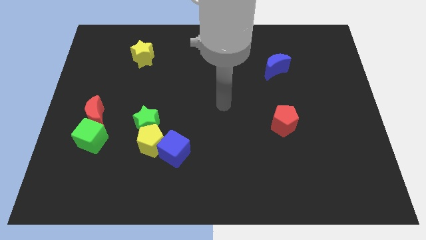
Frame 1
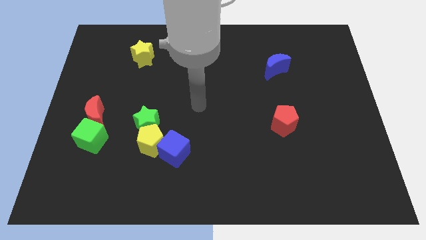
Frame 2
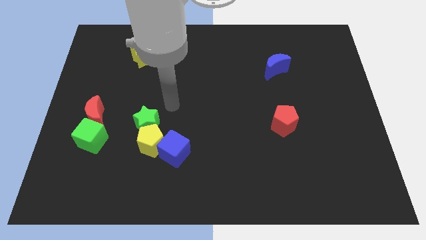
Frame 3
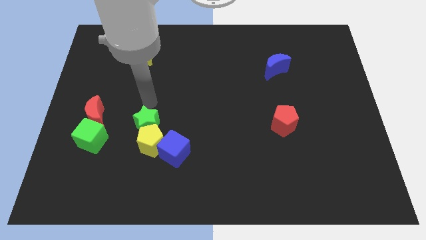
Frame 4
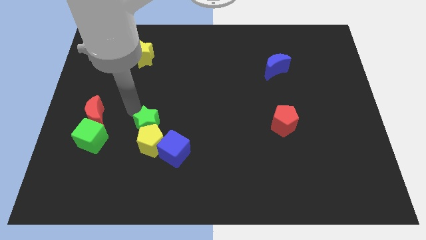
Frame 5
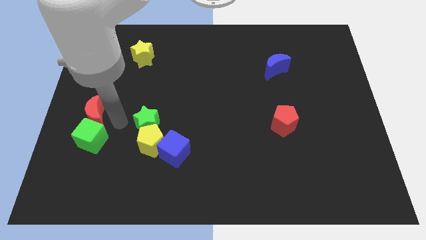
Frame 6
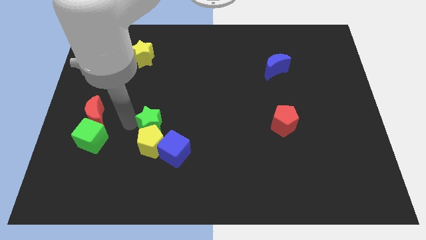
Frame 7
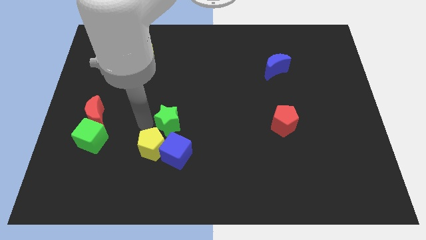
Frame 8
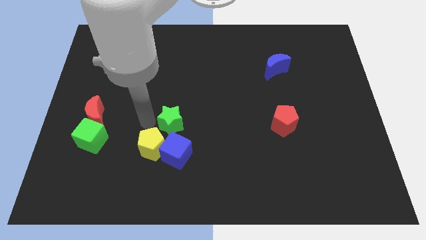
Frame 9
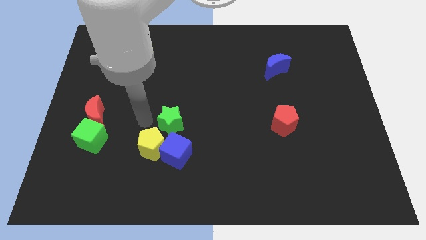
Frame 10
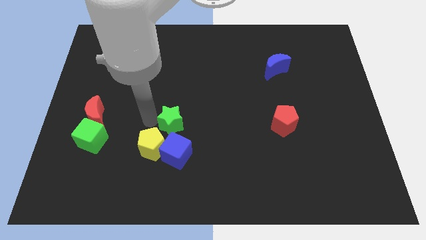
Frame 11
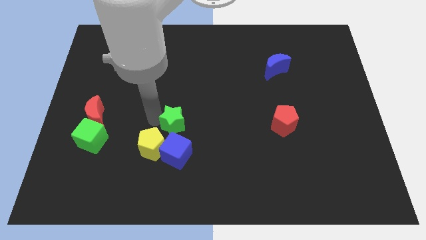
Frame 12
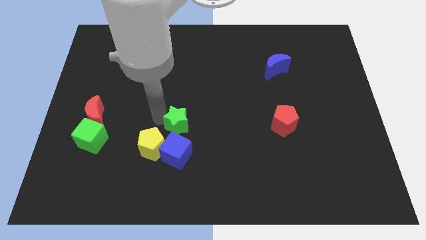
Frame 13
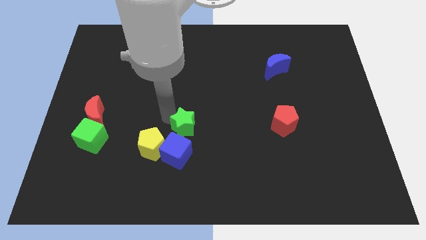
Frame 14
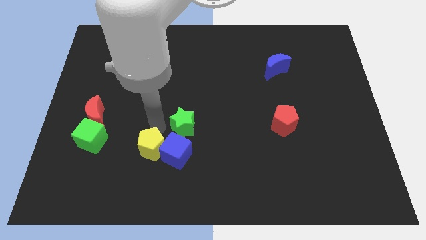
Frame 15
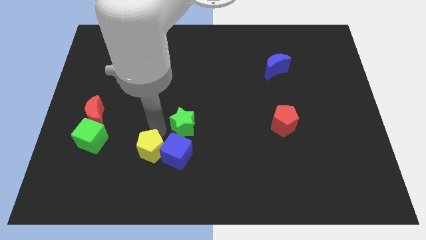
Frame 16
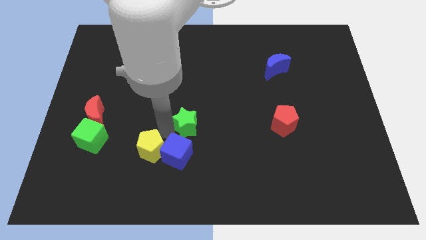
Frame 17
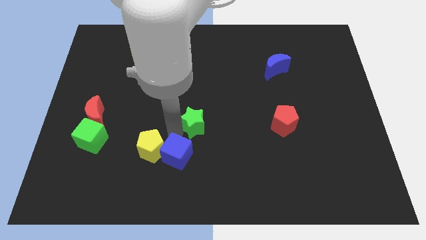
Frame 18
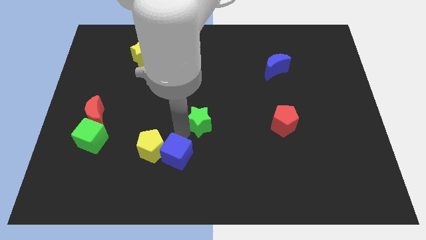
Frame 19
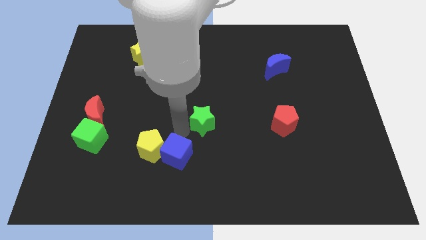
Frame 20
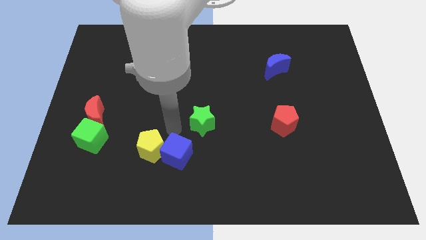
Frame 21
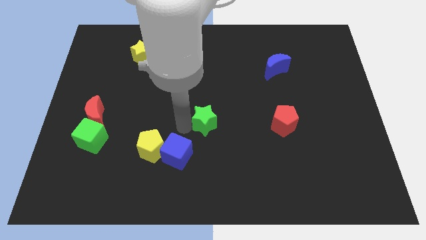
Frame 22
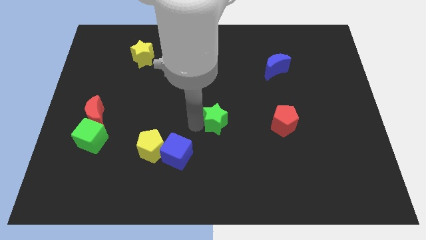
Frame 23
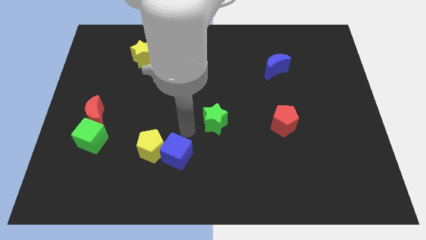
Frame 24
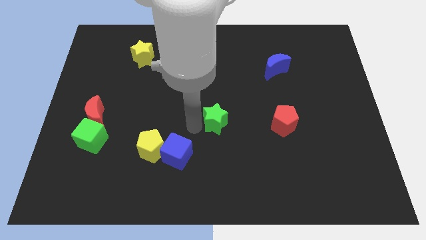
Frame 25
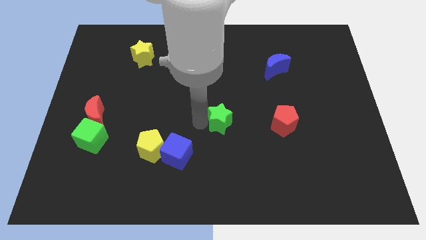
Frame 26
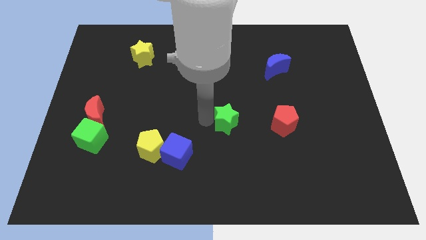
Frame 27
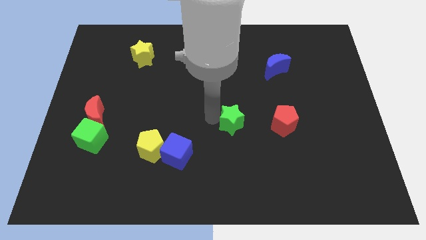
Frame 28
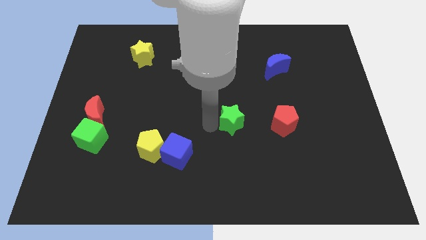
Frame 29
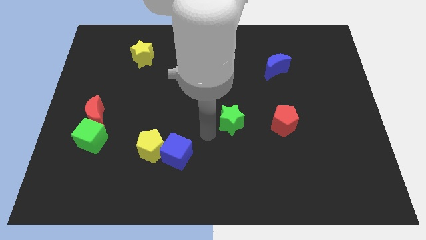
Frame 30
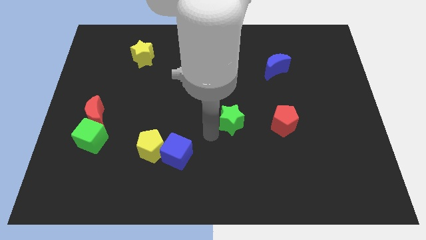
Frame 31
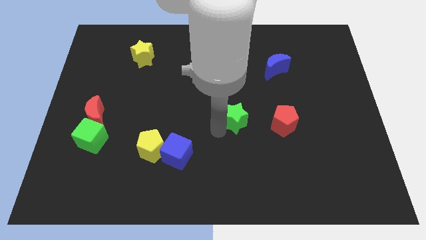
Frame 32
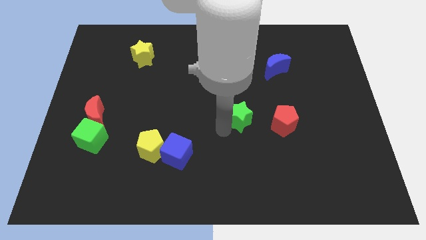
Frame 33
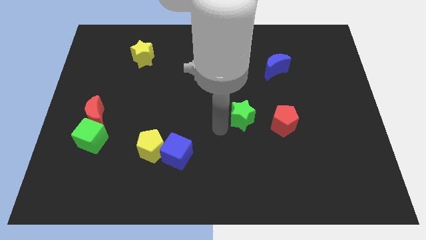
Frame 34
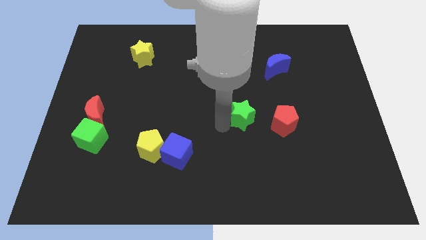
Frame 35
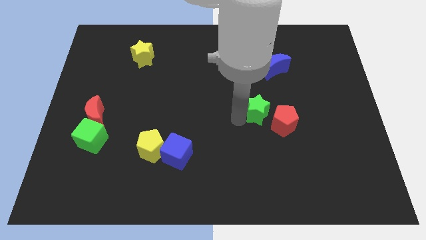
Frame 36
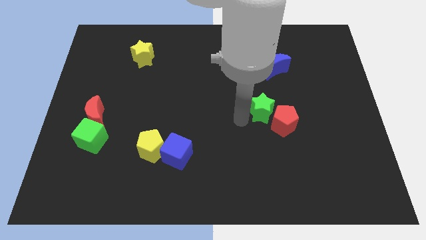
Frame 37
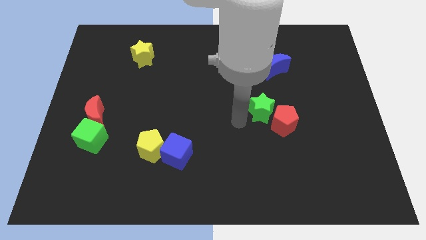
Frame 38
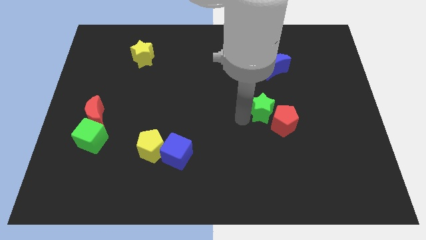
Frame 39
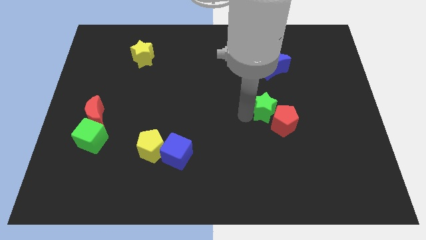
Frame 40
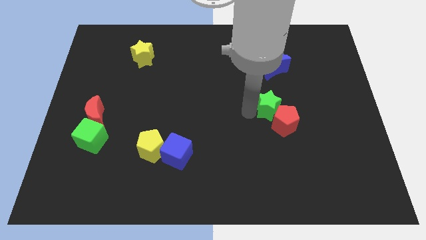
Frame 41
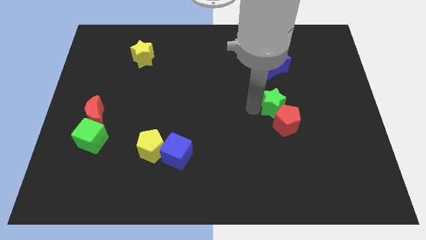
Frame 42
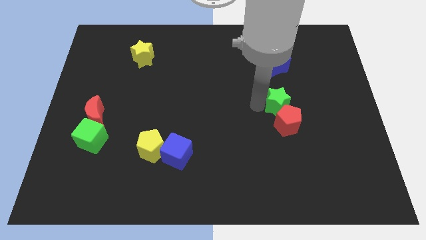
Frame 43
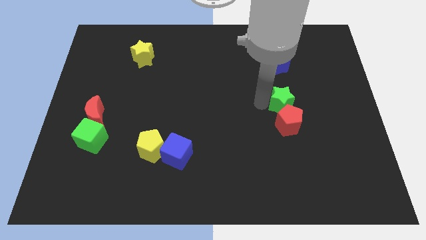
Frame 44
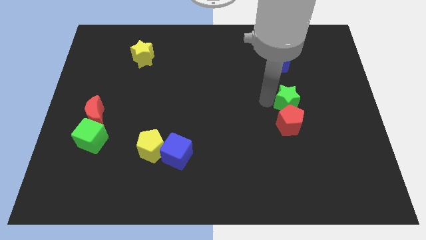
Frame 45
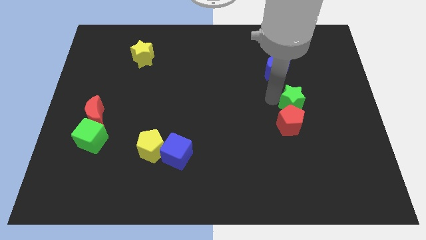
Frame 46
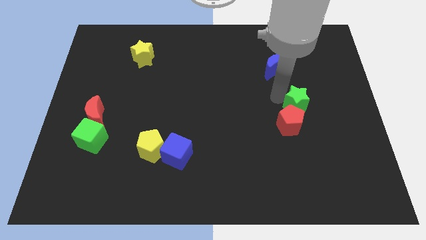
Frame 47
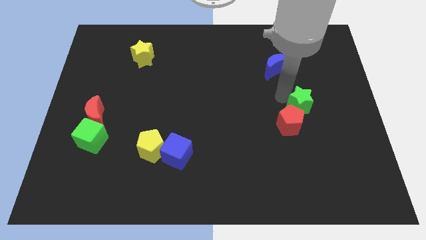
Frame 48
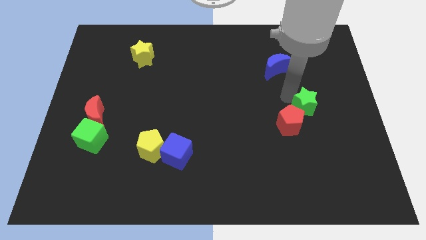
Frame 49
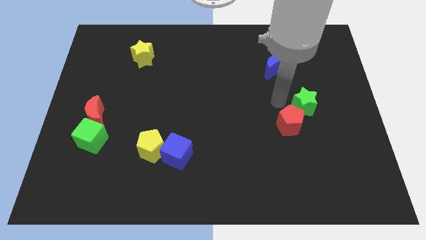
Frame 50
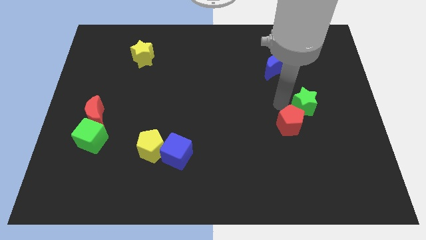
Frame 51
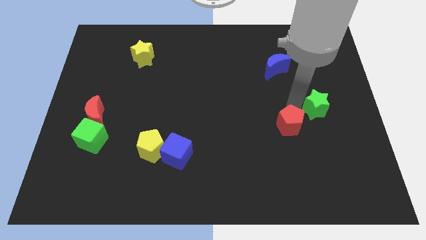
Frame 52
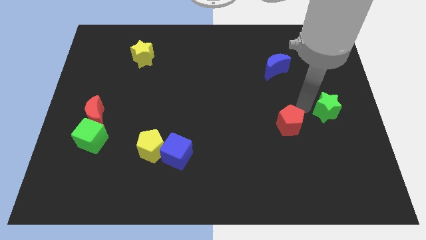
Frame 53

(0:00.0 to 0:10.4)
slide the green star to the center right

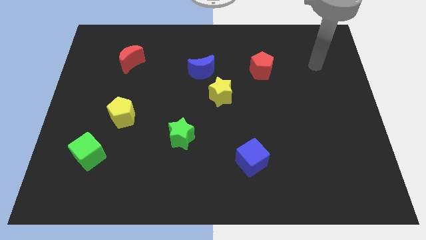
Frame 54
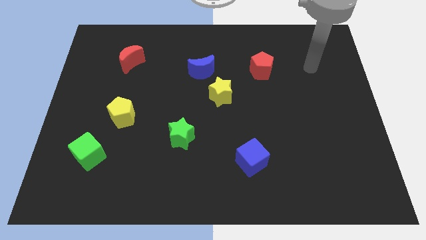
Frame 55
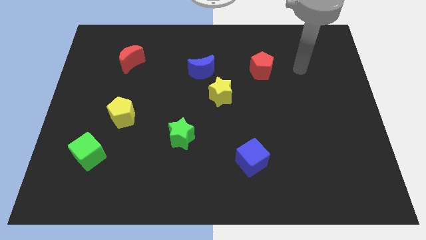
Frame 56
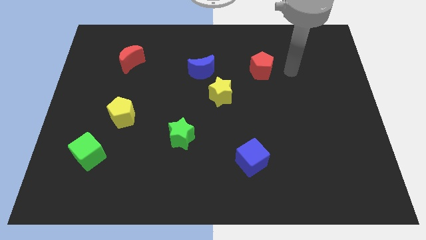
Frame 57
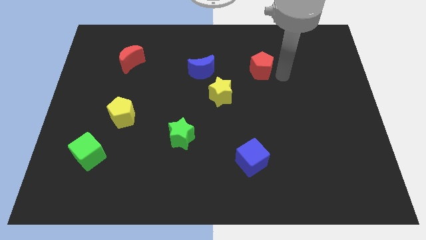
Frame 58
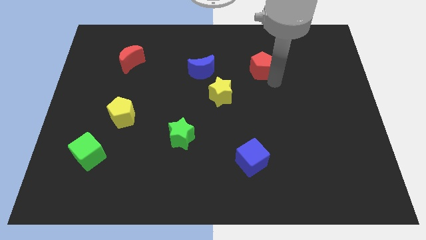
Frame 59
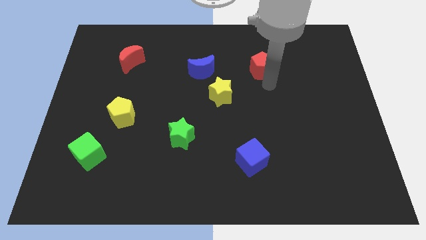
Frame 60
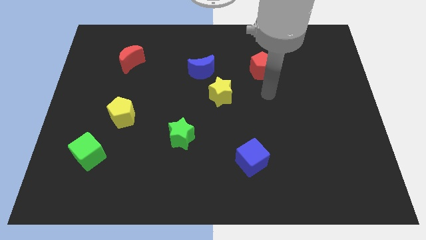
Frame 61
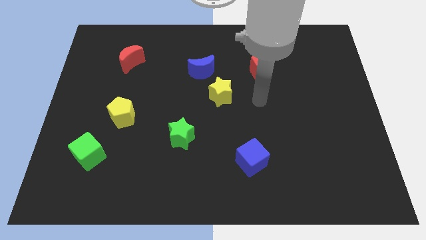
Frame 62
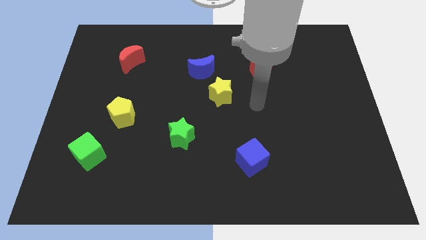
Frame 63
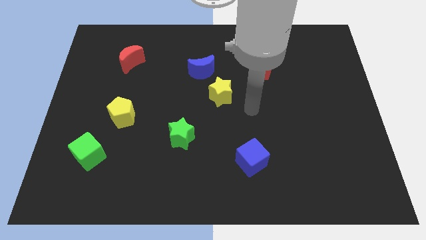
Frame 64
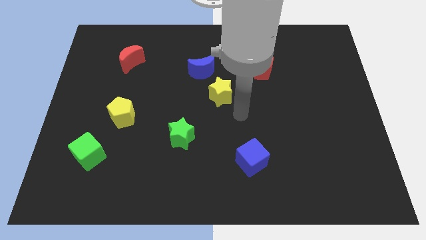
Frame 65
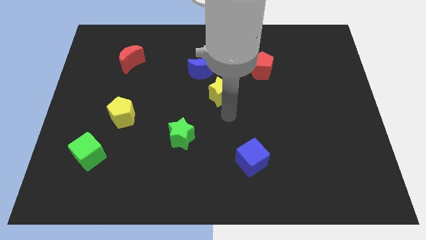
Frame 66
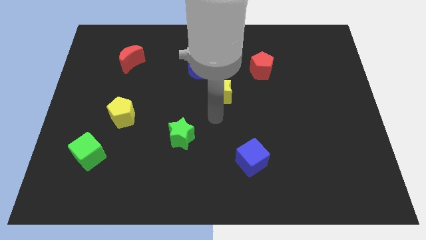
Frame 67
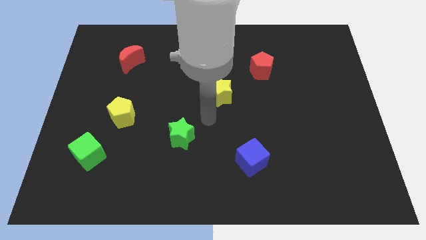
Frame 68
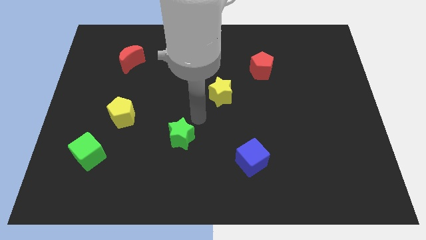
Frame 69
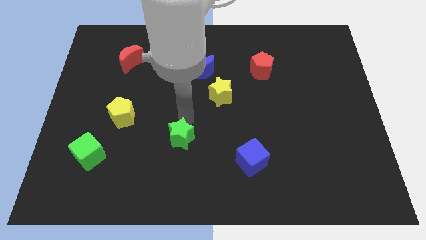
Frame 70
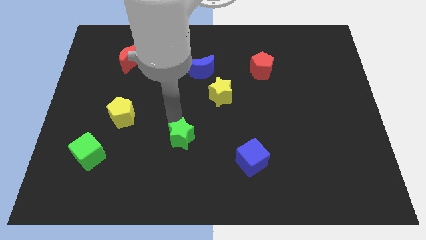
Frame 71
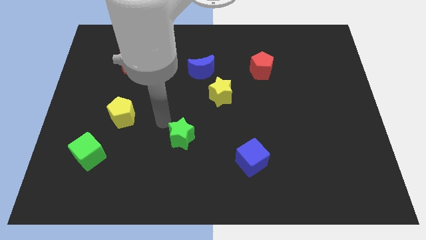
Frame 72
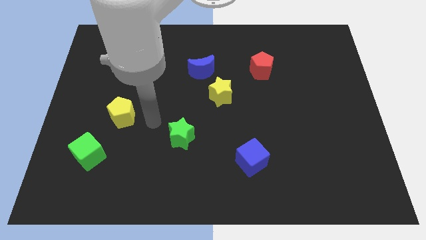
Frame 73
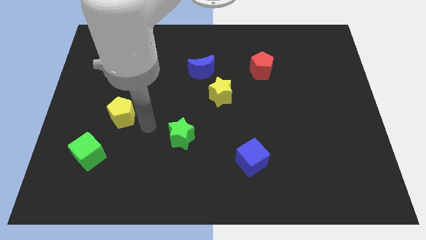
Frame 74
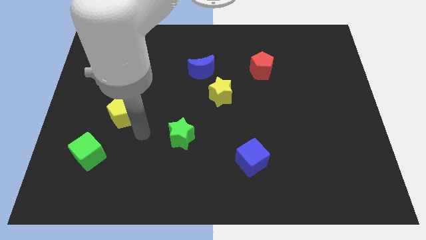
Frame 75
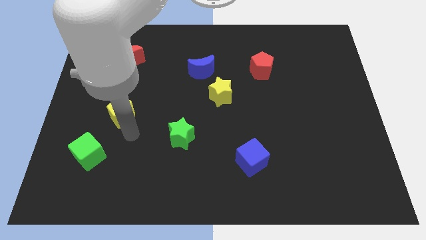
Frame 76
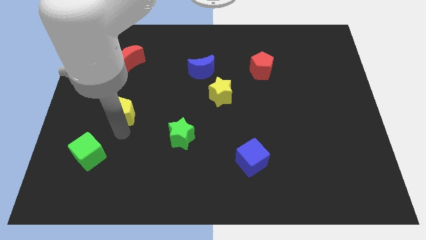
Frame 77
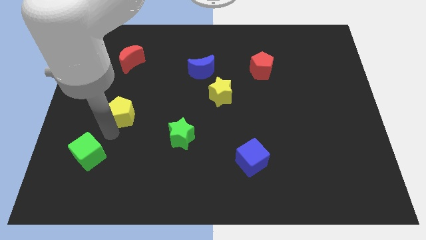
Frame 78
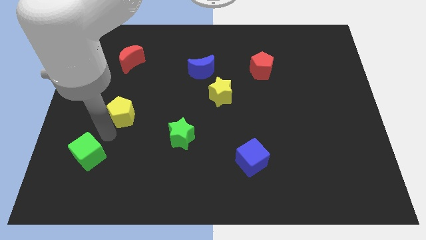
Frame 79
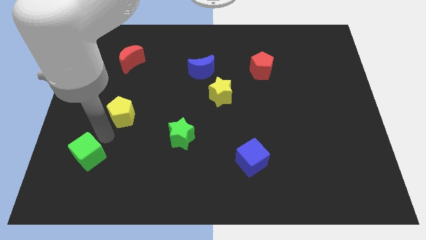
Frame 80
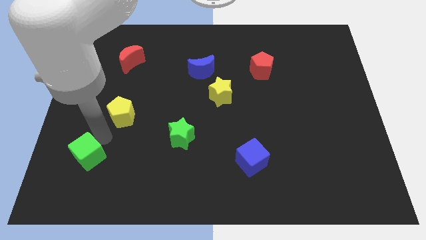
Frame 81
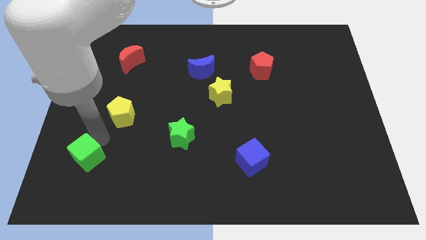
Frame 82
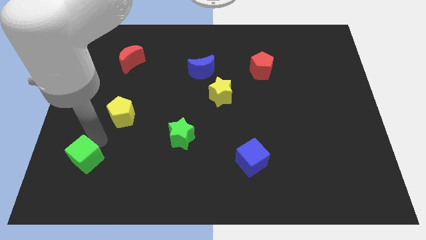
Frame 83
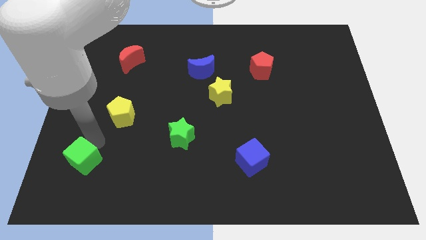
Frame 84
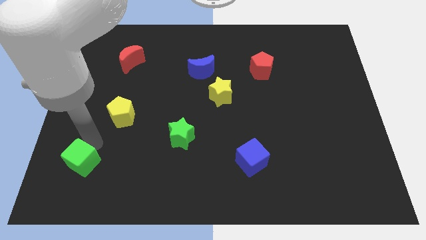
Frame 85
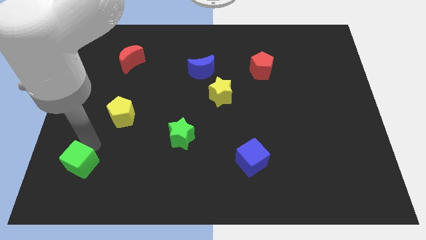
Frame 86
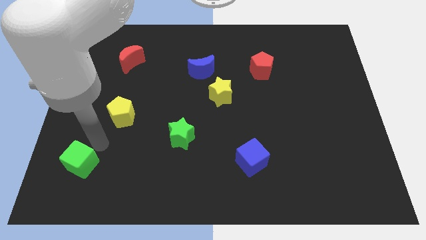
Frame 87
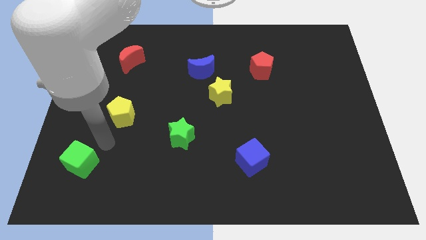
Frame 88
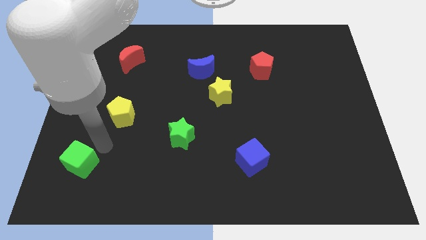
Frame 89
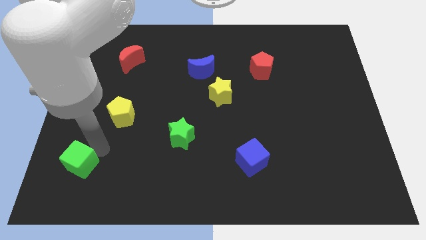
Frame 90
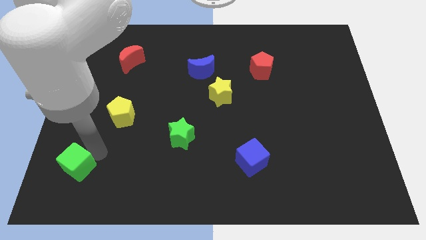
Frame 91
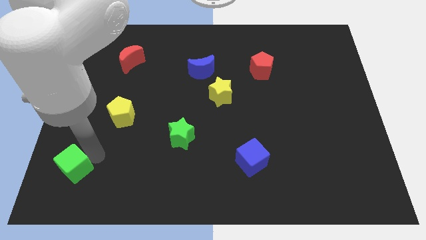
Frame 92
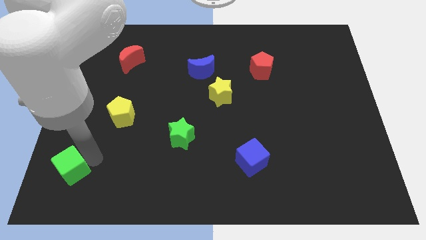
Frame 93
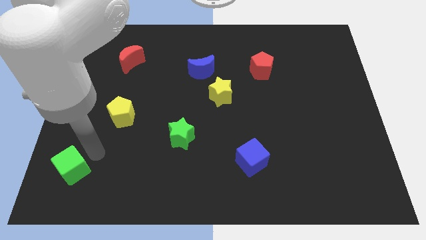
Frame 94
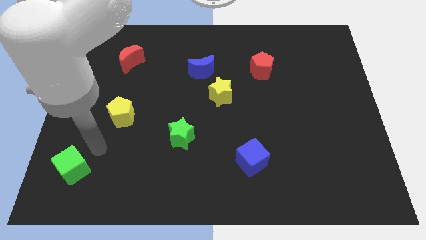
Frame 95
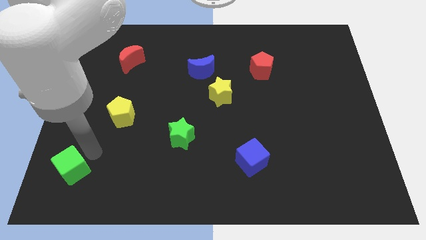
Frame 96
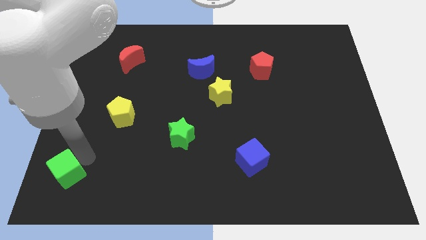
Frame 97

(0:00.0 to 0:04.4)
slide the green cube to the bottom left
